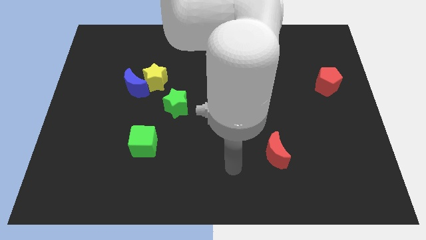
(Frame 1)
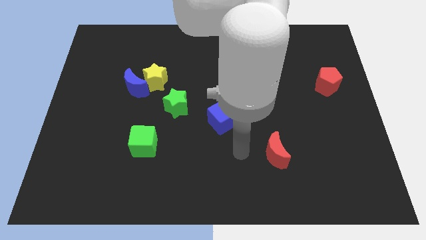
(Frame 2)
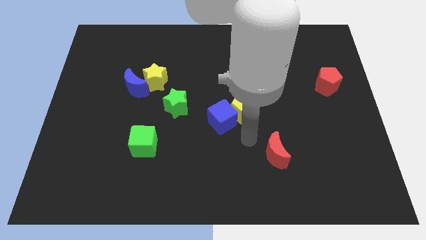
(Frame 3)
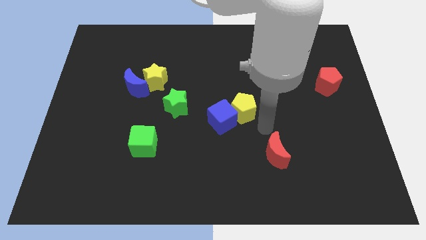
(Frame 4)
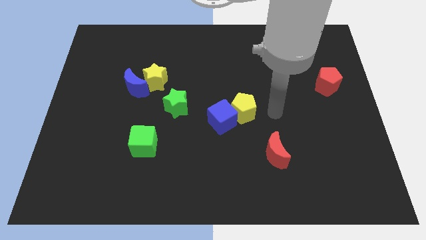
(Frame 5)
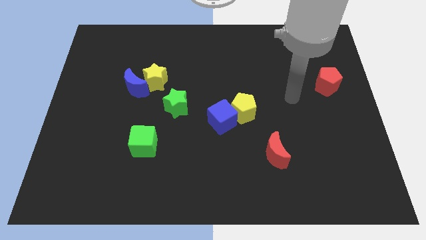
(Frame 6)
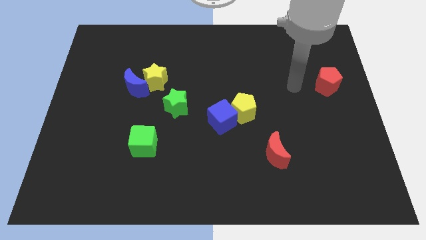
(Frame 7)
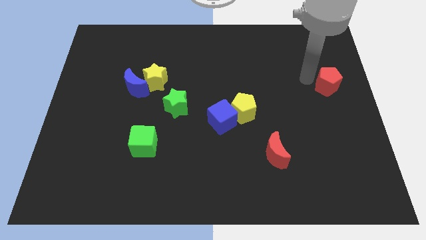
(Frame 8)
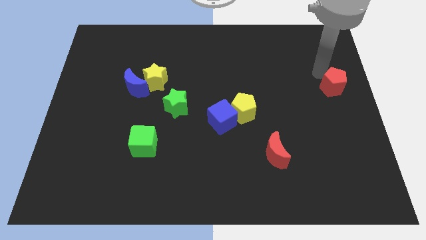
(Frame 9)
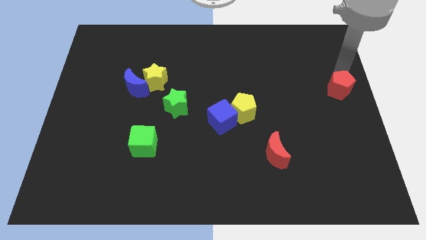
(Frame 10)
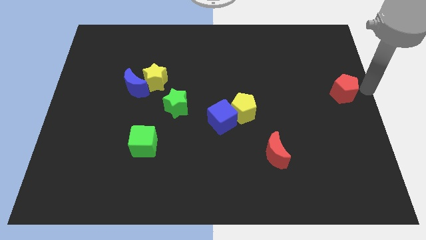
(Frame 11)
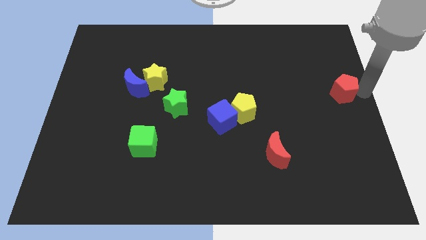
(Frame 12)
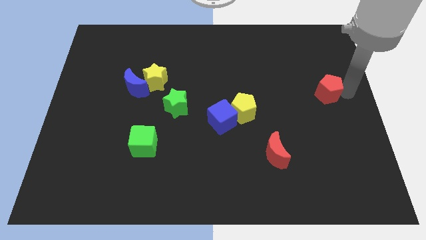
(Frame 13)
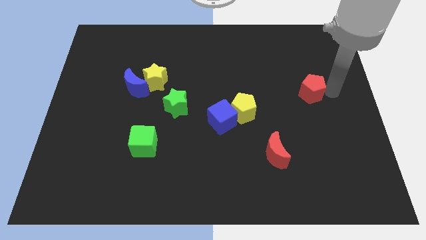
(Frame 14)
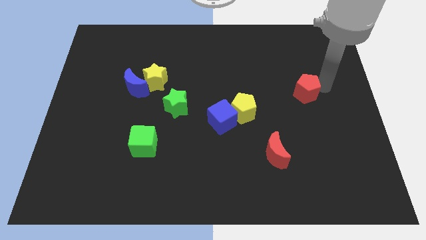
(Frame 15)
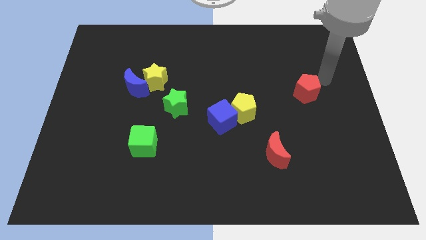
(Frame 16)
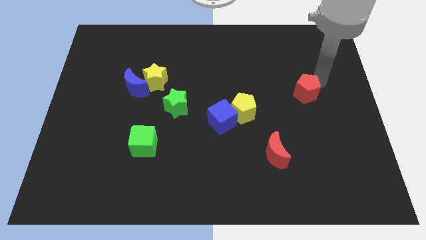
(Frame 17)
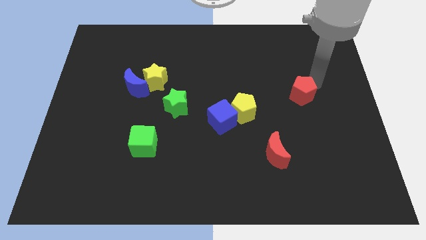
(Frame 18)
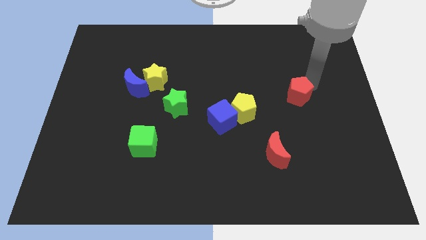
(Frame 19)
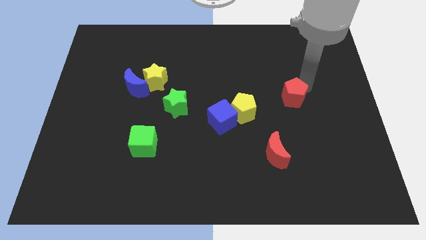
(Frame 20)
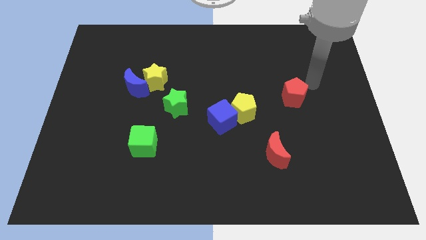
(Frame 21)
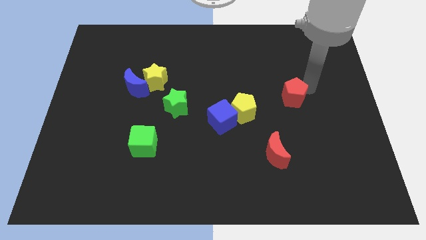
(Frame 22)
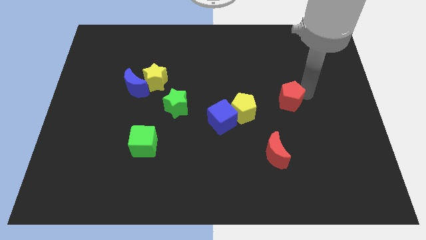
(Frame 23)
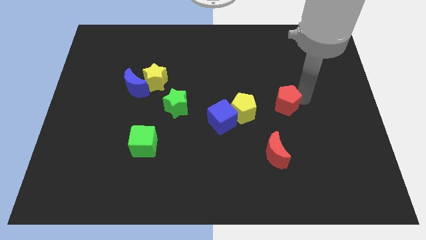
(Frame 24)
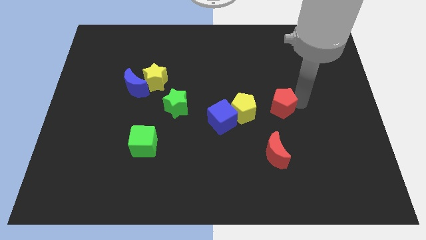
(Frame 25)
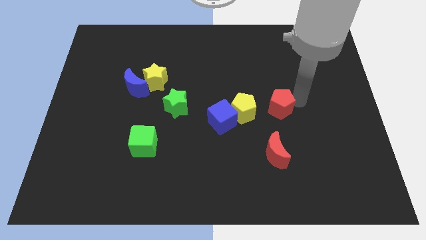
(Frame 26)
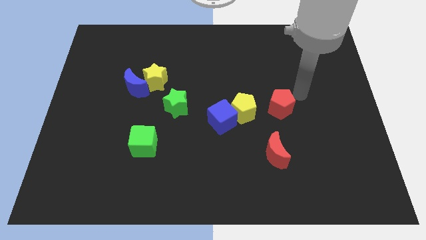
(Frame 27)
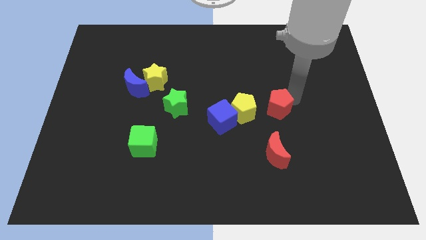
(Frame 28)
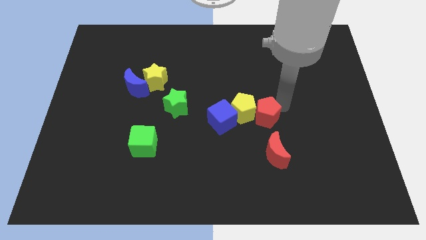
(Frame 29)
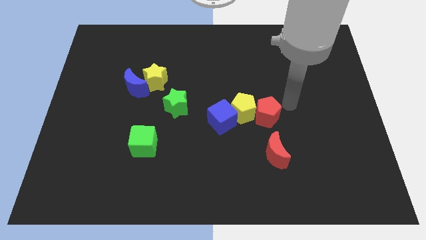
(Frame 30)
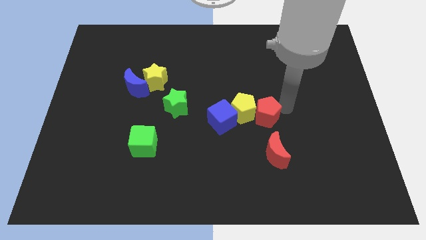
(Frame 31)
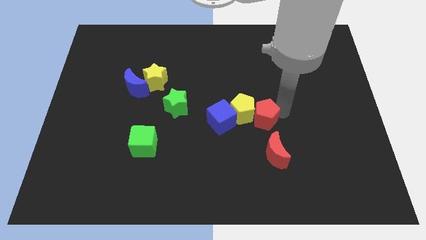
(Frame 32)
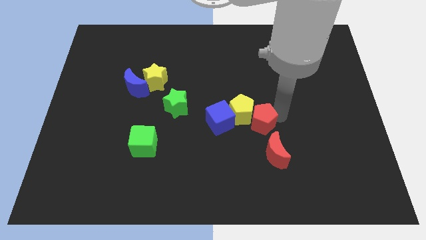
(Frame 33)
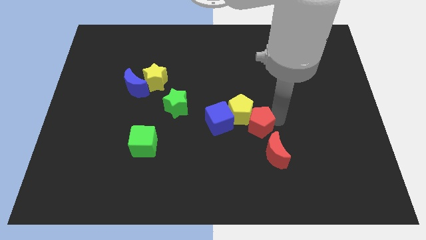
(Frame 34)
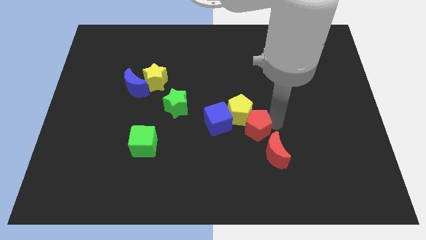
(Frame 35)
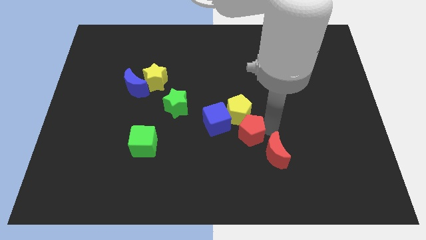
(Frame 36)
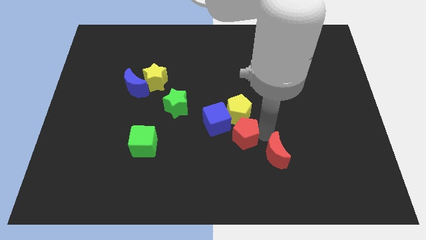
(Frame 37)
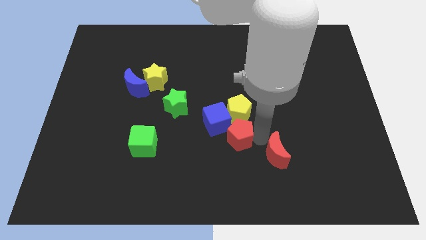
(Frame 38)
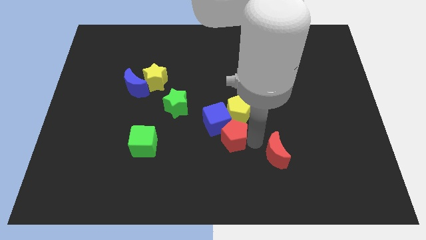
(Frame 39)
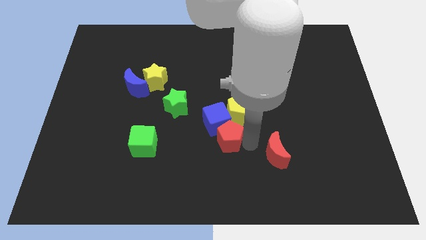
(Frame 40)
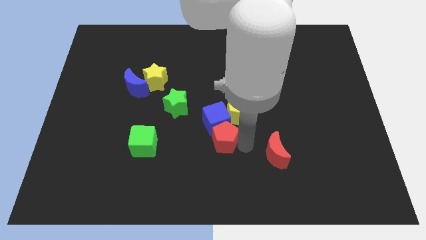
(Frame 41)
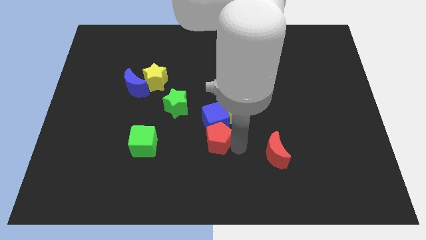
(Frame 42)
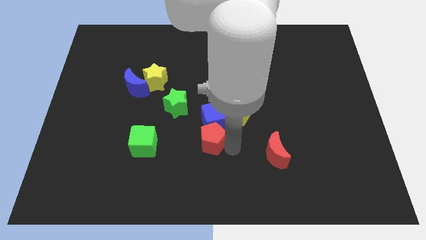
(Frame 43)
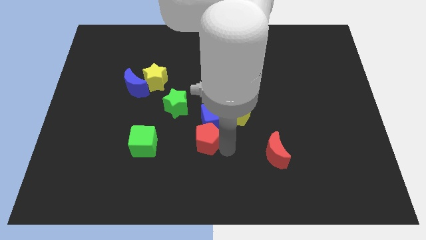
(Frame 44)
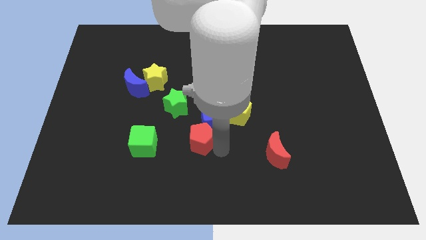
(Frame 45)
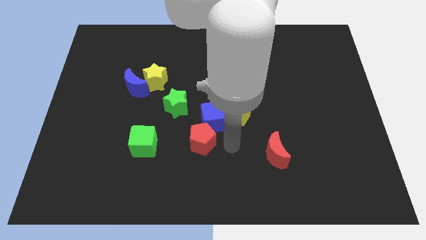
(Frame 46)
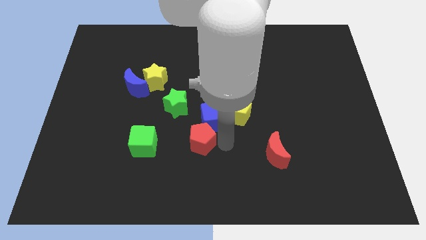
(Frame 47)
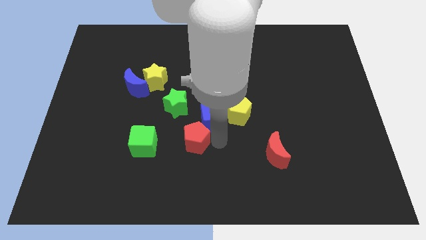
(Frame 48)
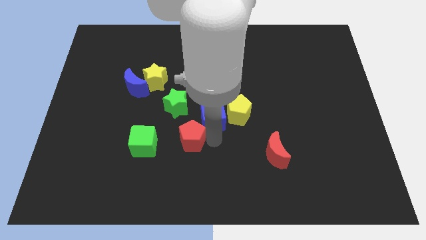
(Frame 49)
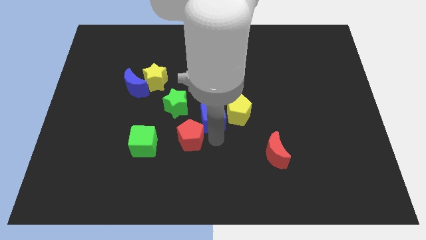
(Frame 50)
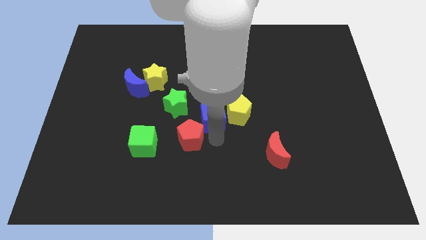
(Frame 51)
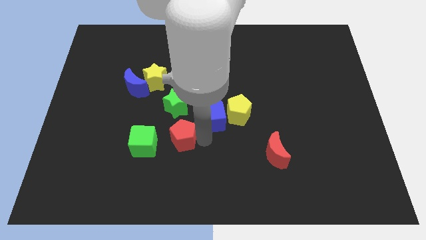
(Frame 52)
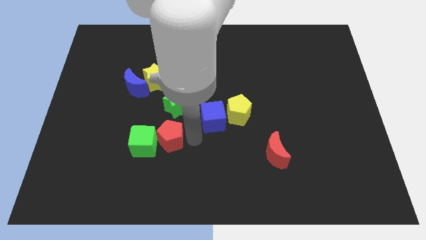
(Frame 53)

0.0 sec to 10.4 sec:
push the red pentagon close to the green cube

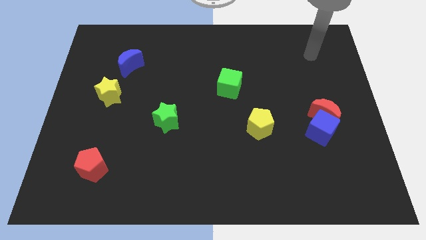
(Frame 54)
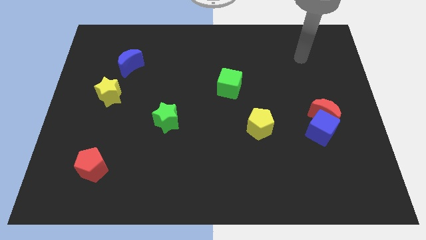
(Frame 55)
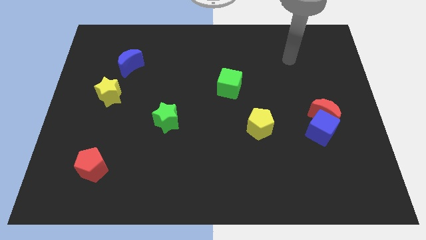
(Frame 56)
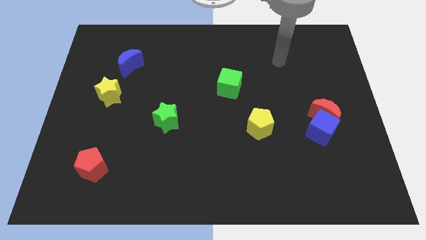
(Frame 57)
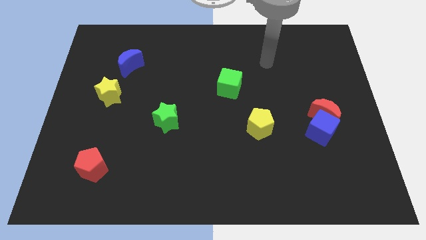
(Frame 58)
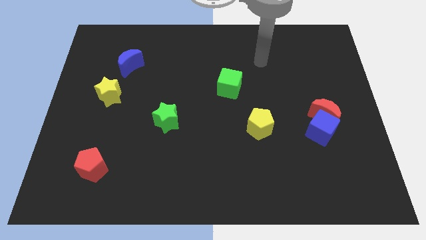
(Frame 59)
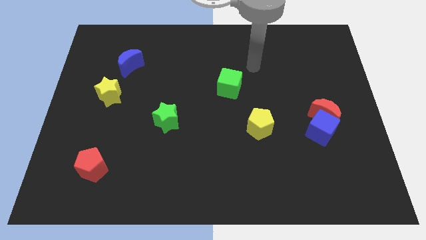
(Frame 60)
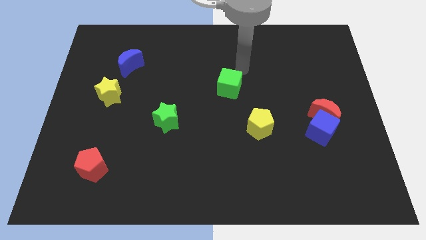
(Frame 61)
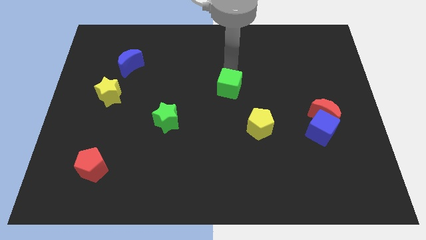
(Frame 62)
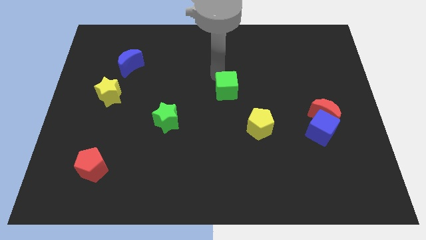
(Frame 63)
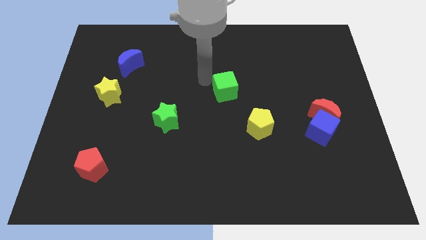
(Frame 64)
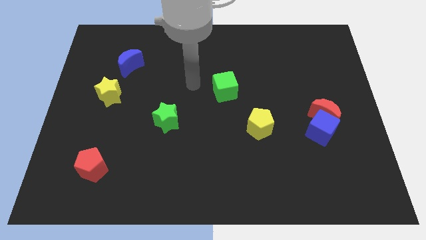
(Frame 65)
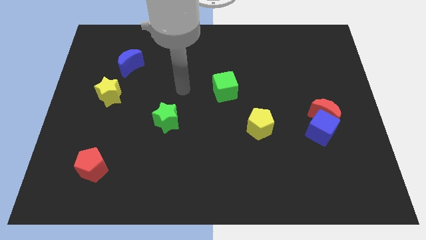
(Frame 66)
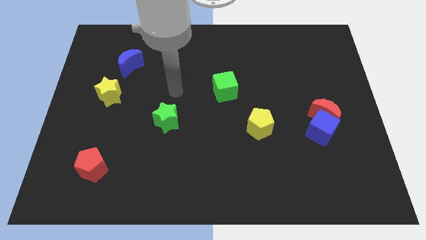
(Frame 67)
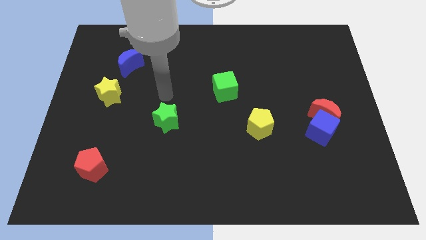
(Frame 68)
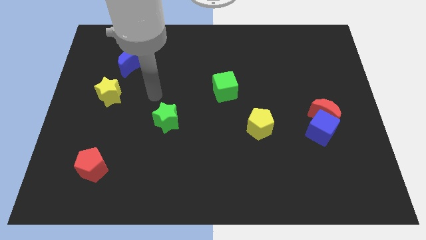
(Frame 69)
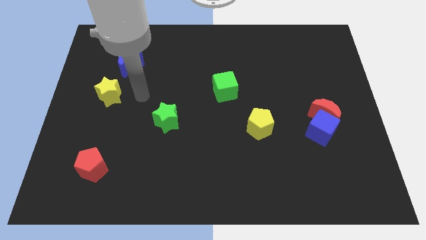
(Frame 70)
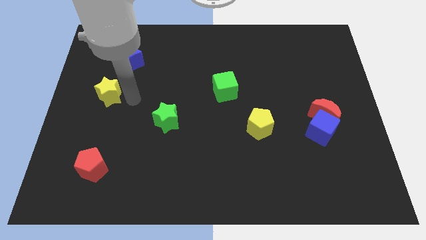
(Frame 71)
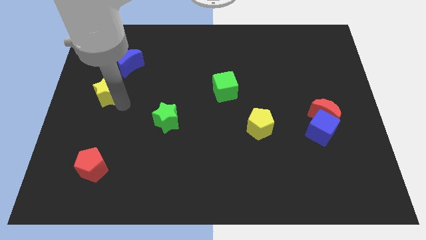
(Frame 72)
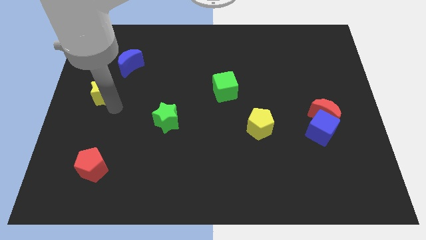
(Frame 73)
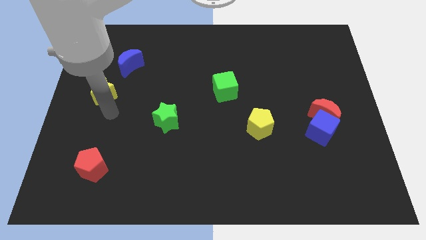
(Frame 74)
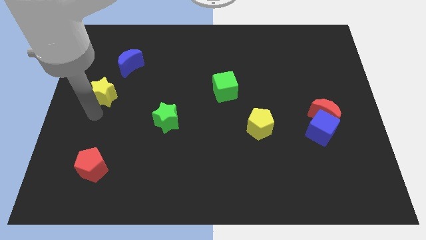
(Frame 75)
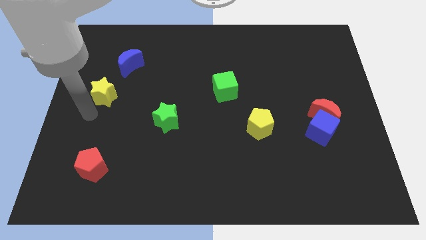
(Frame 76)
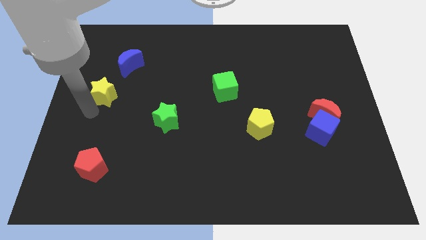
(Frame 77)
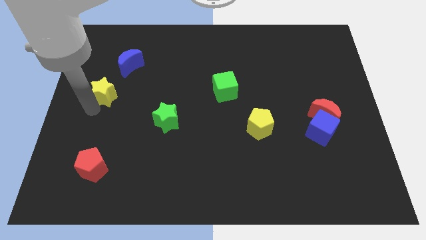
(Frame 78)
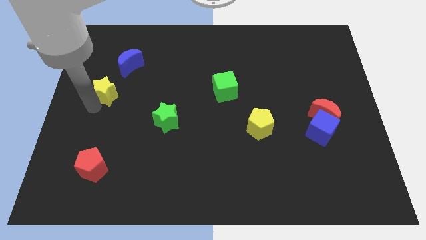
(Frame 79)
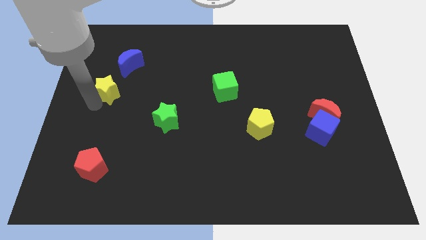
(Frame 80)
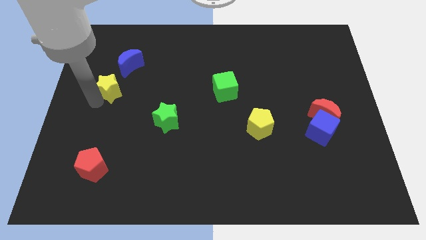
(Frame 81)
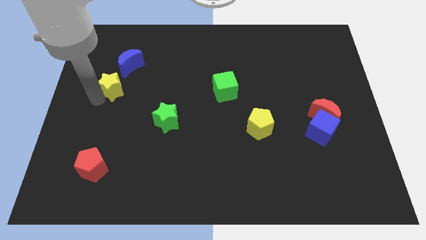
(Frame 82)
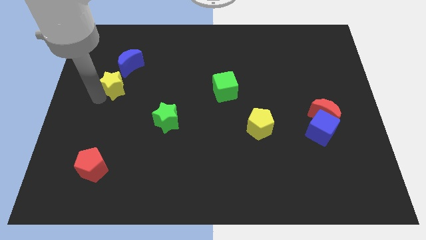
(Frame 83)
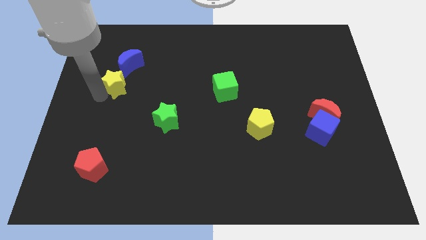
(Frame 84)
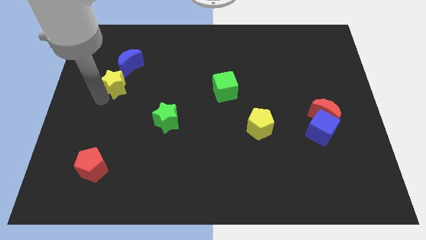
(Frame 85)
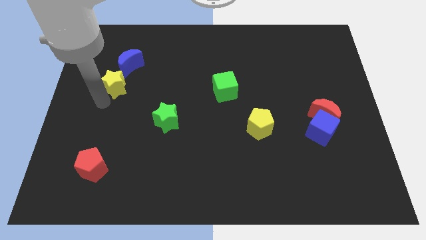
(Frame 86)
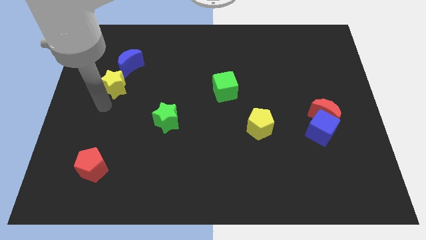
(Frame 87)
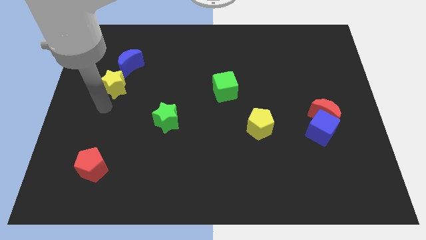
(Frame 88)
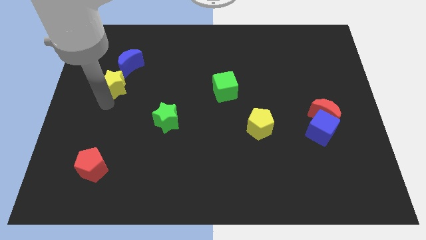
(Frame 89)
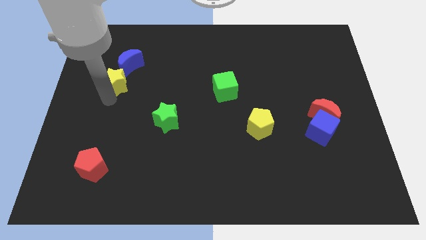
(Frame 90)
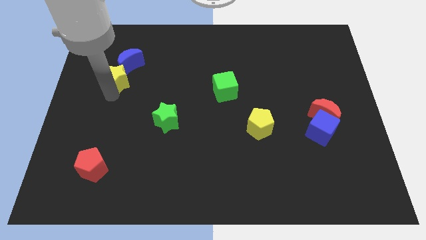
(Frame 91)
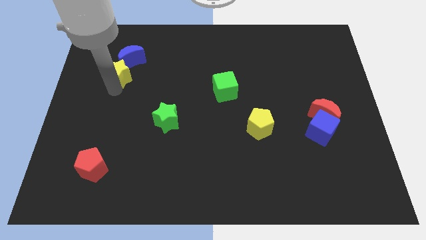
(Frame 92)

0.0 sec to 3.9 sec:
slide the yellow star to the blue moon
